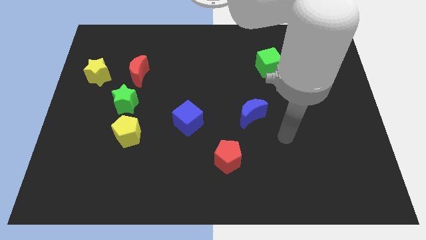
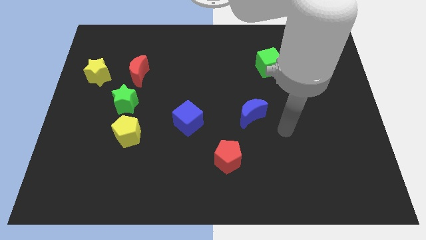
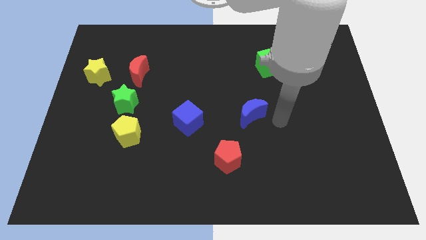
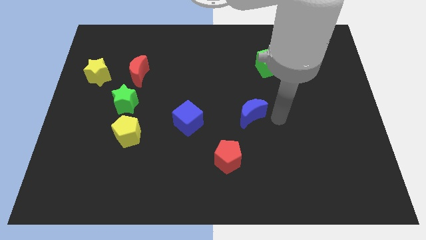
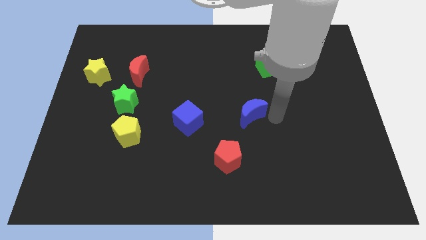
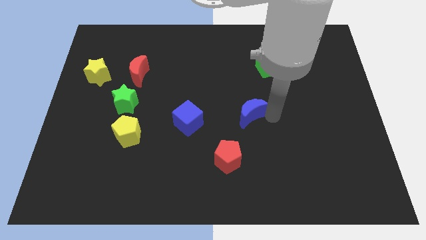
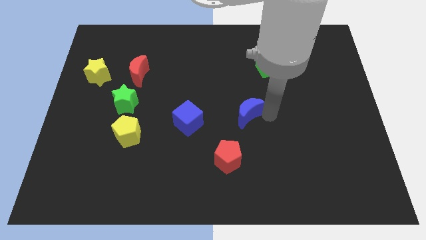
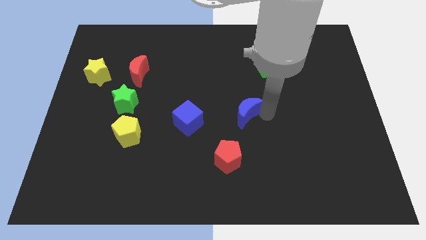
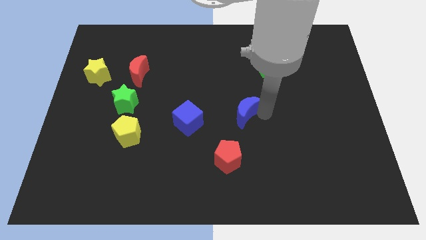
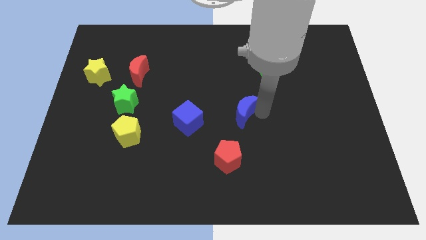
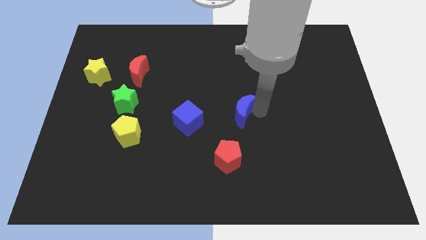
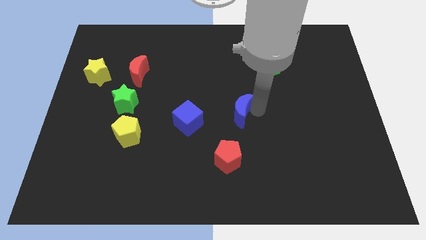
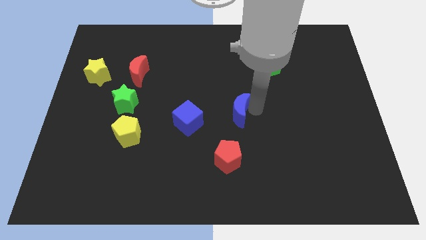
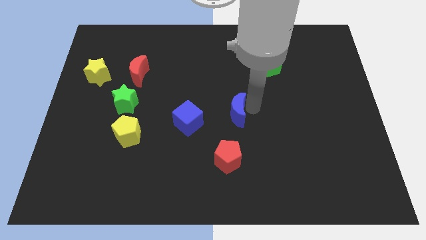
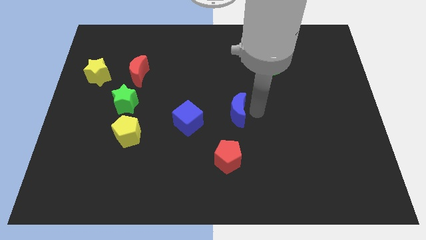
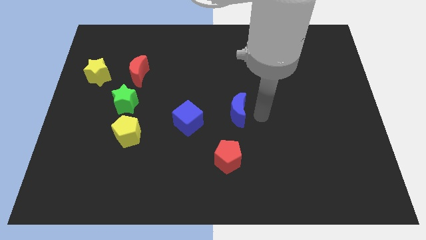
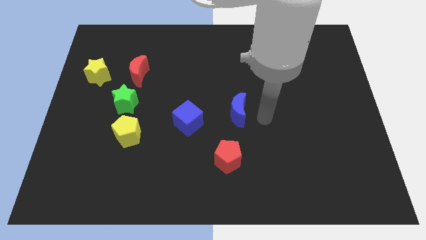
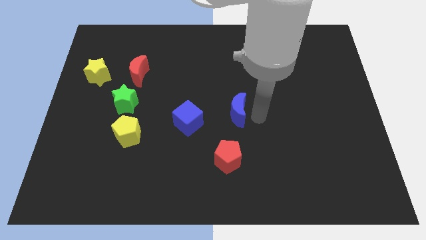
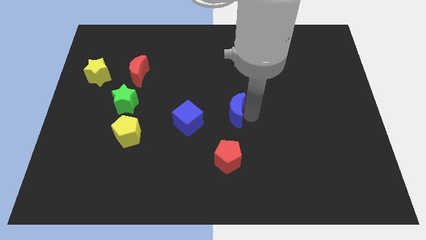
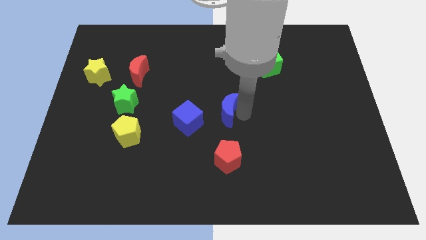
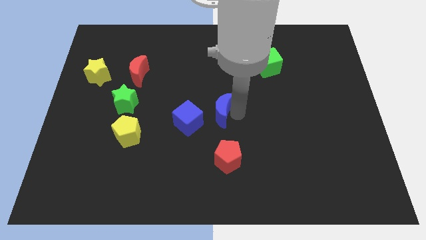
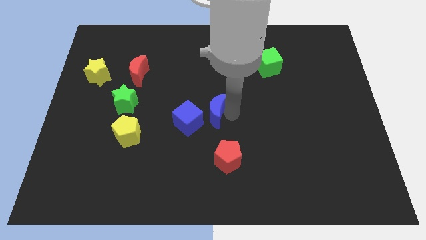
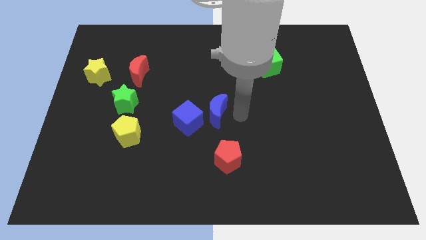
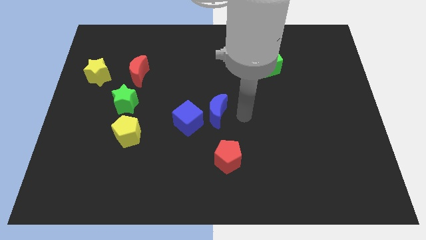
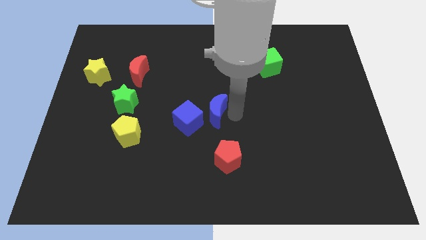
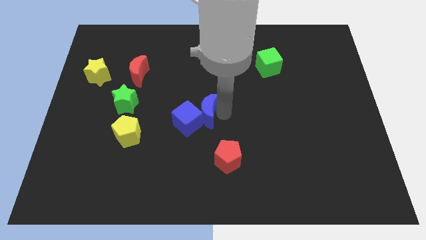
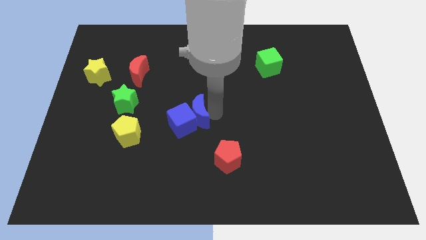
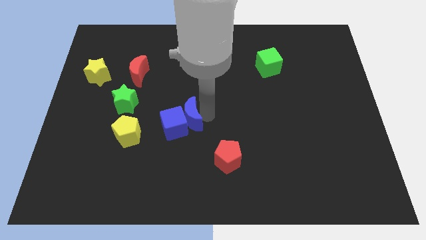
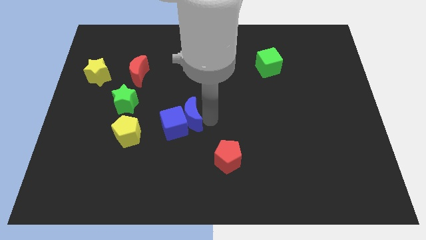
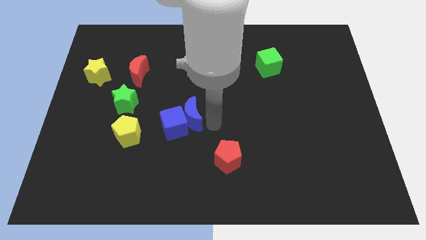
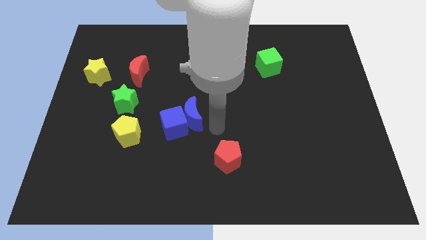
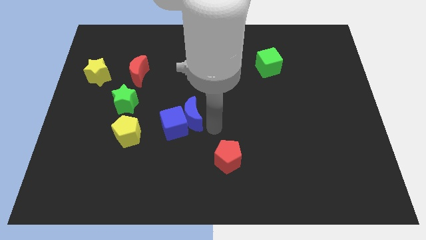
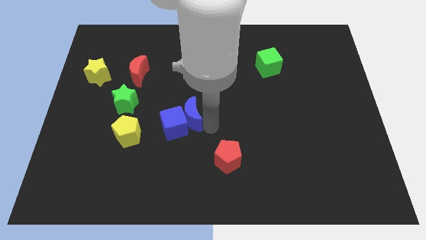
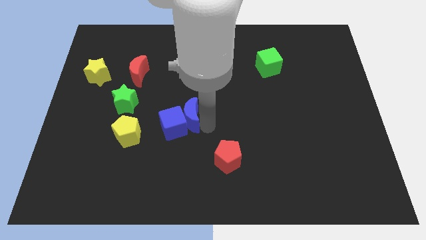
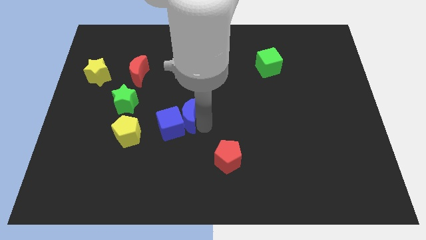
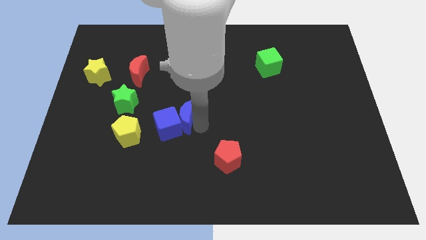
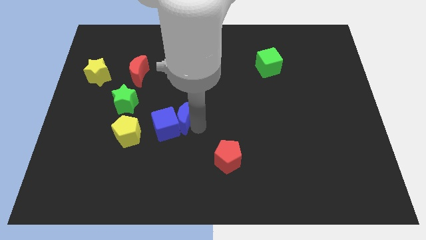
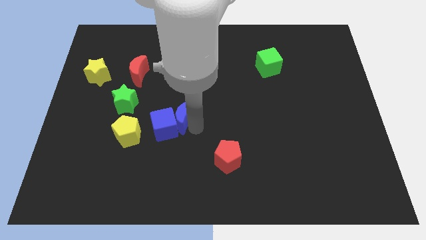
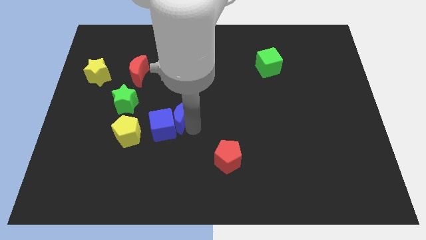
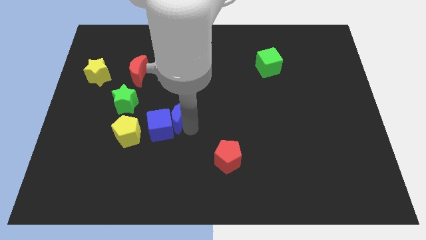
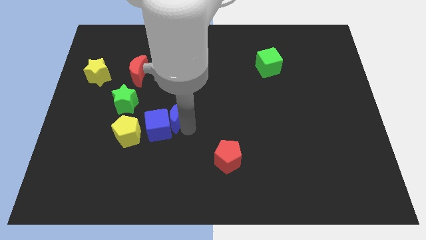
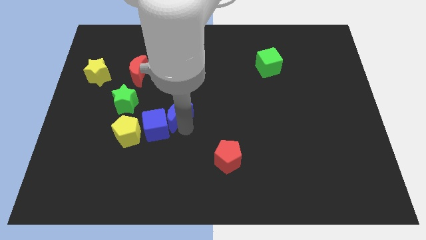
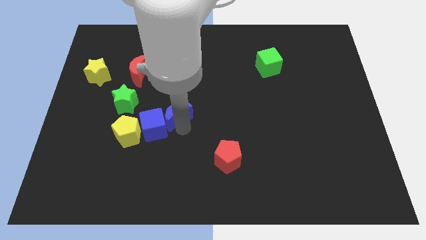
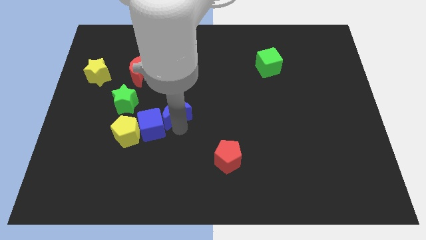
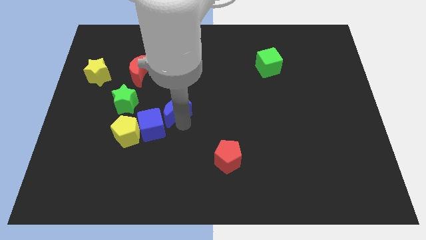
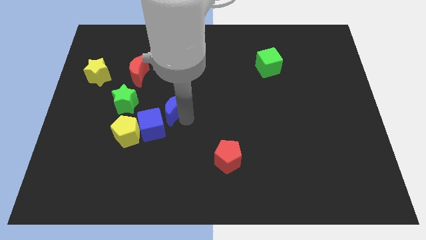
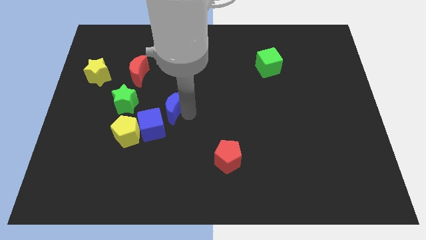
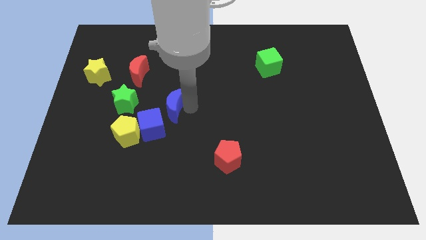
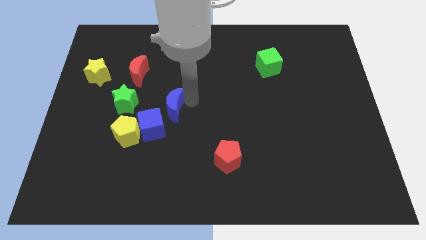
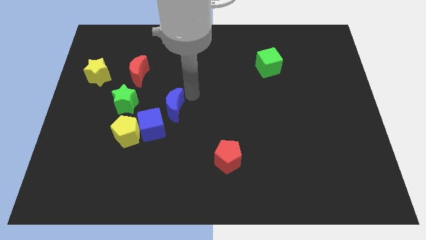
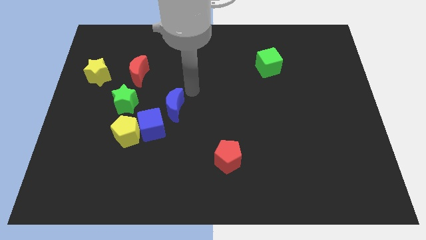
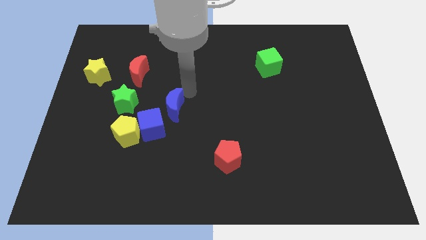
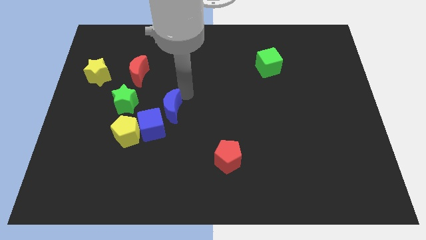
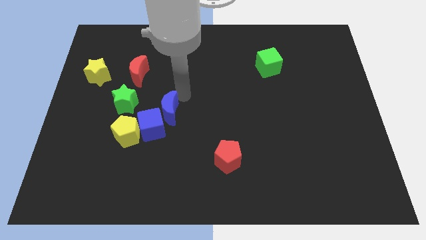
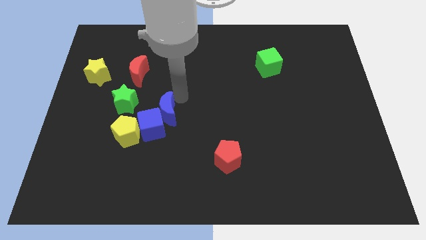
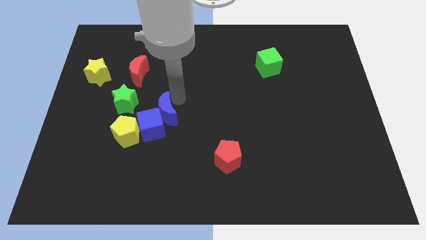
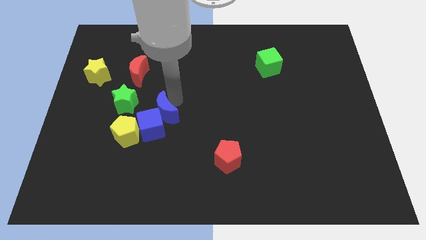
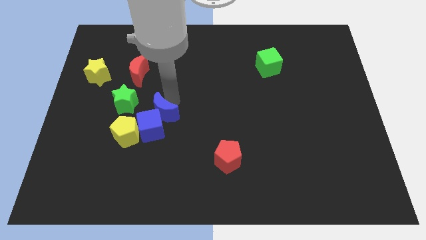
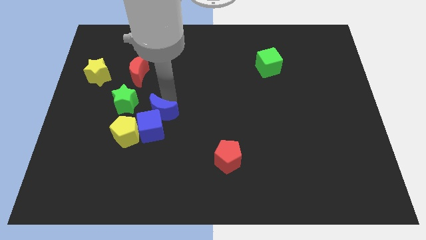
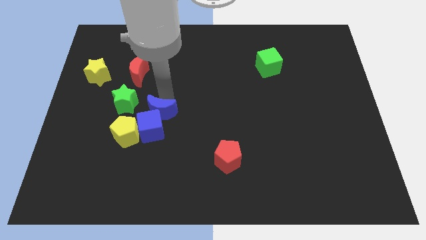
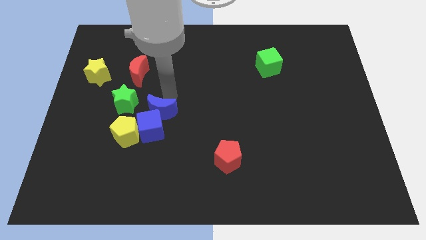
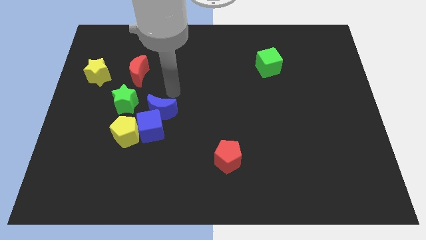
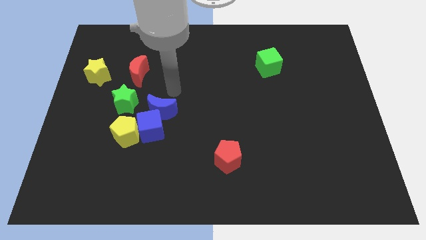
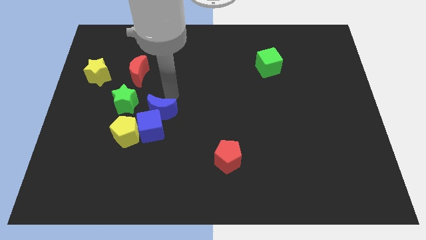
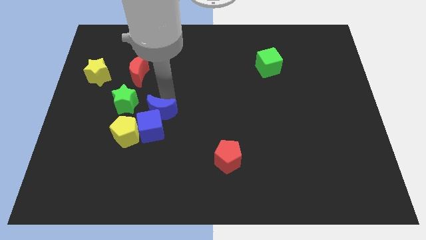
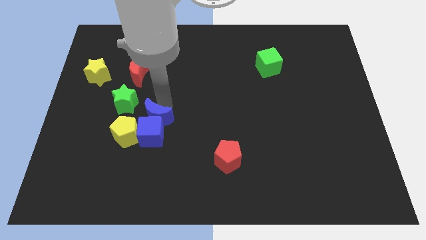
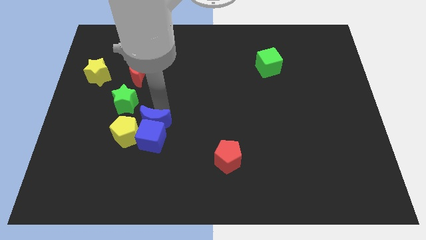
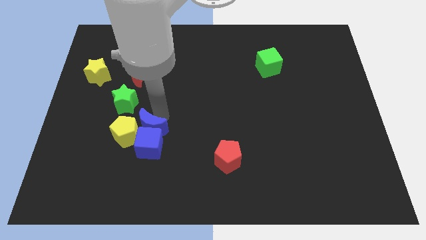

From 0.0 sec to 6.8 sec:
push the blue moon next to the yellow pentagon
